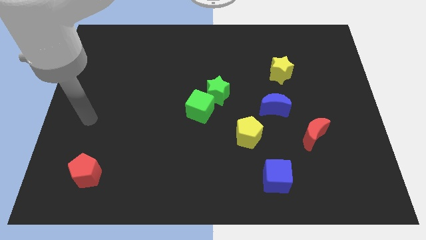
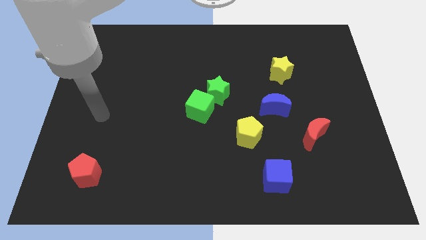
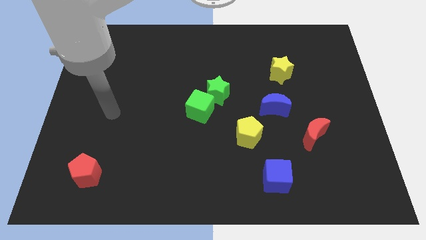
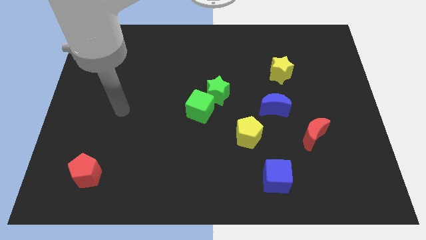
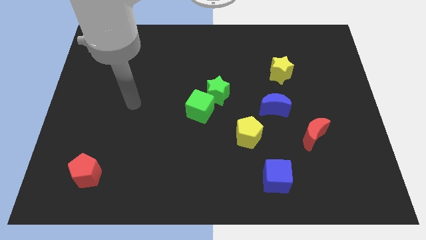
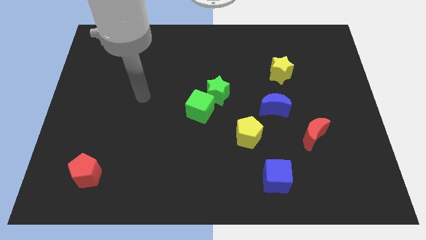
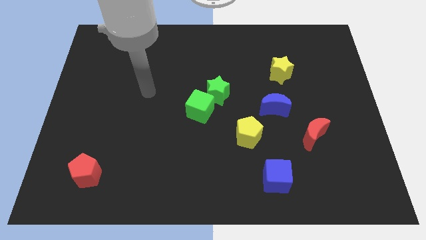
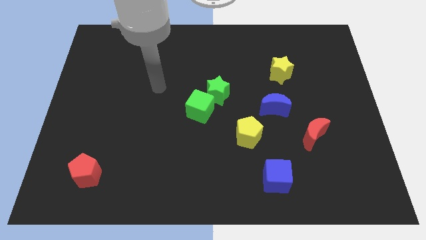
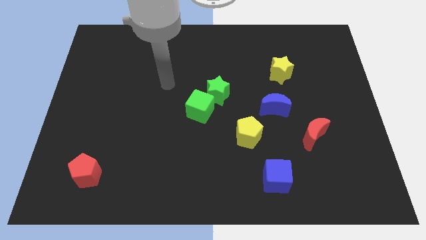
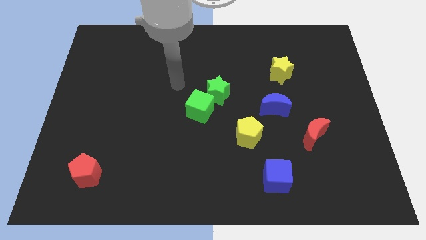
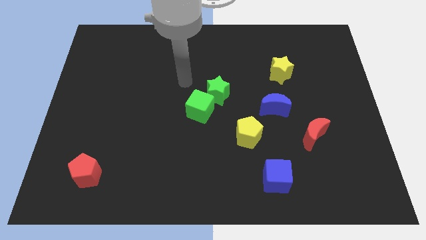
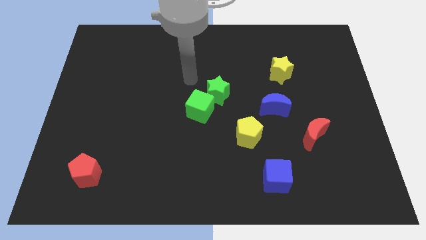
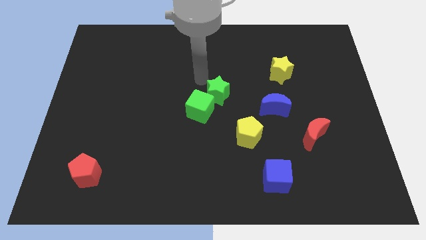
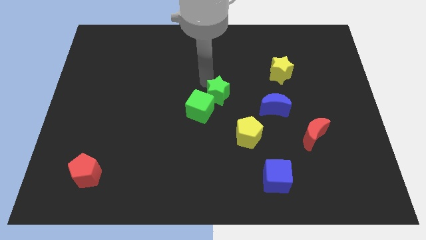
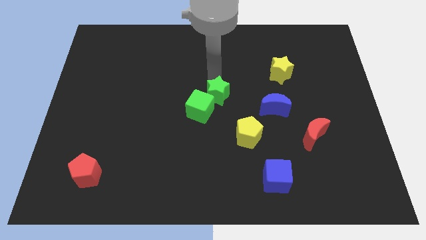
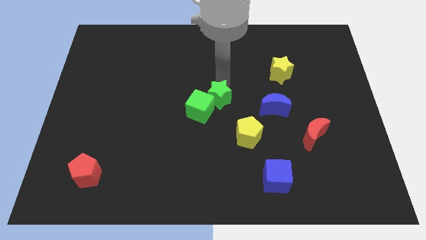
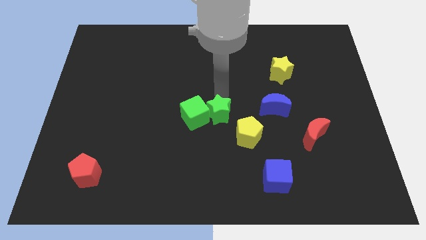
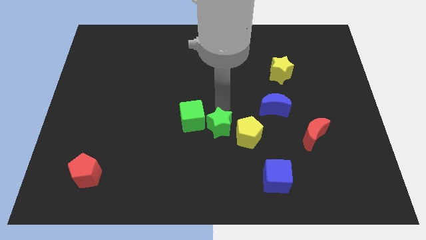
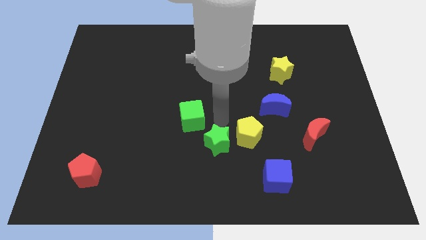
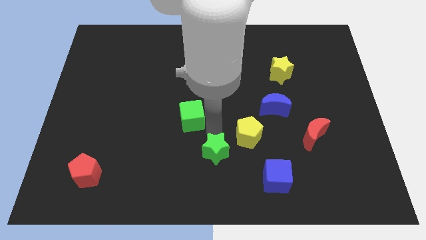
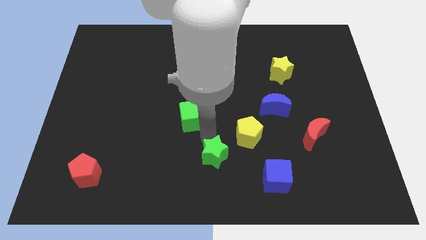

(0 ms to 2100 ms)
pull the green cube apart from the green star

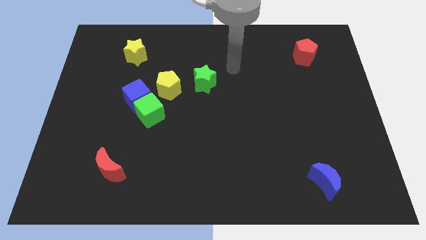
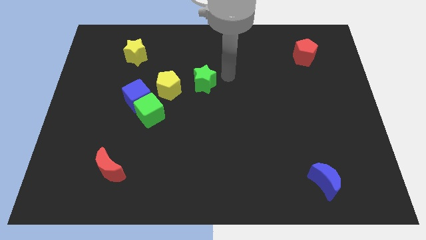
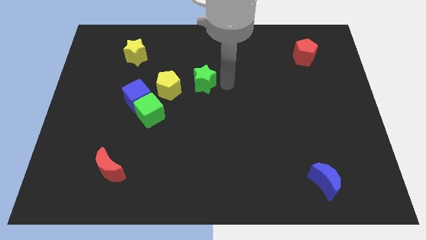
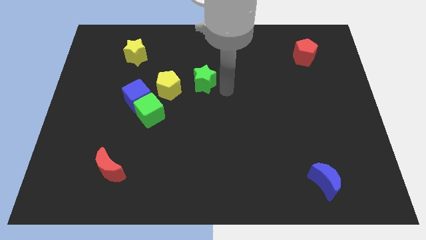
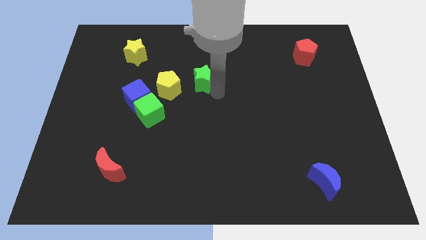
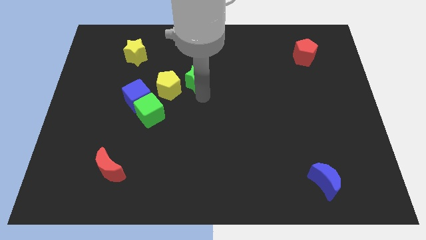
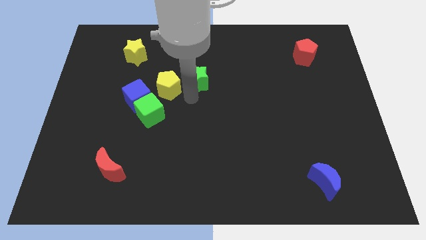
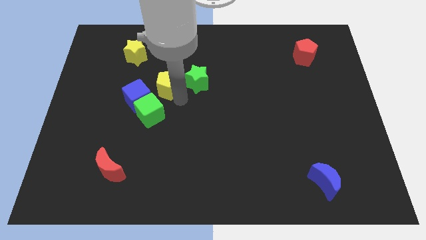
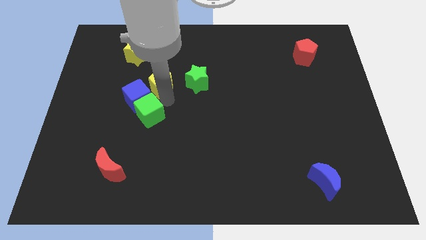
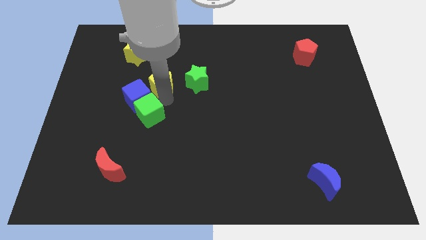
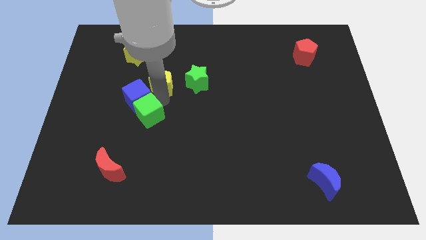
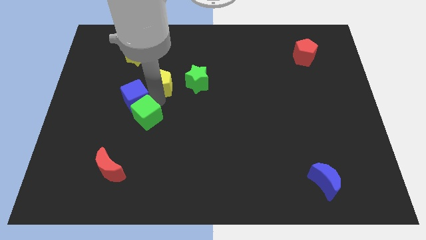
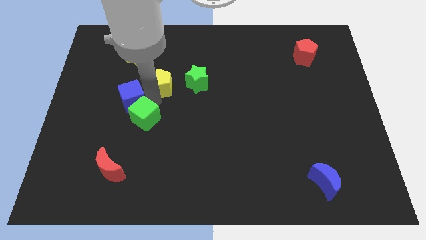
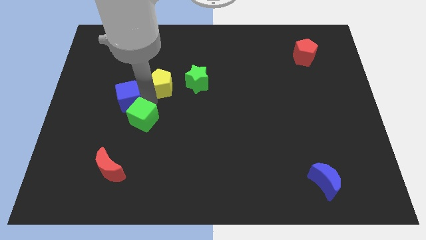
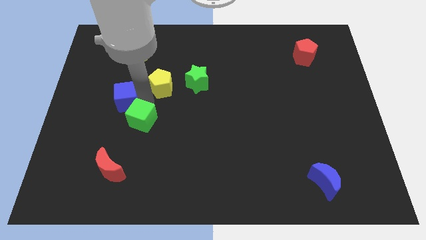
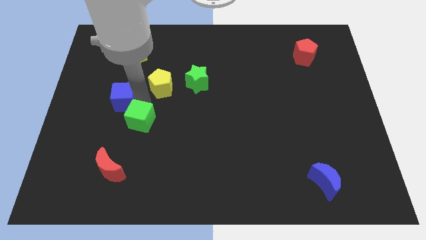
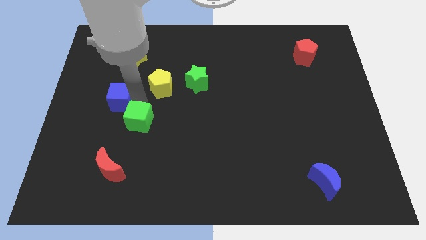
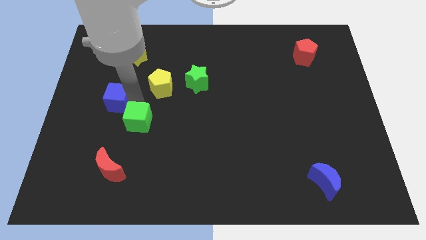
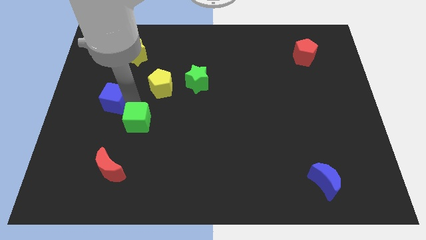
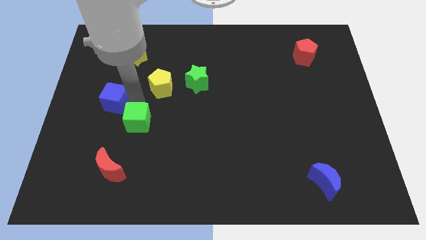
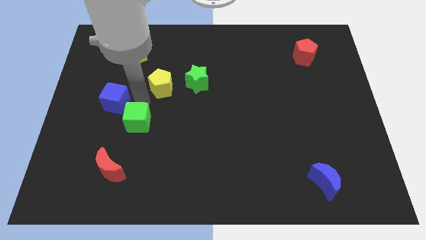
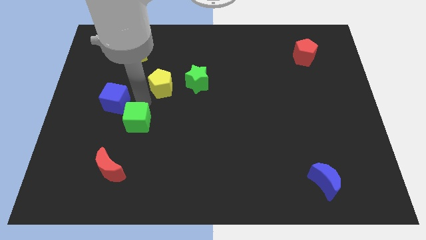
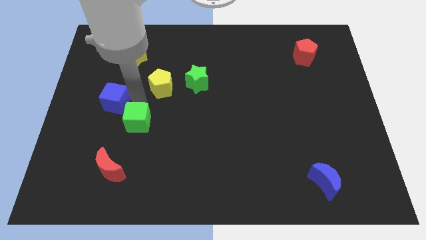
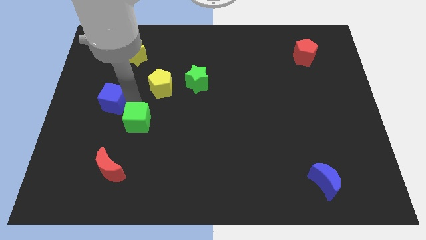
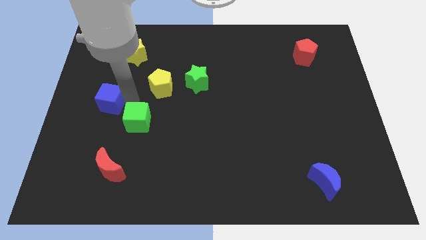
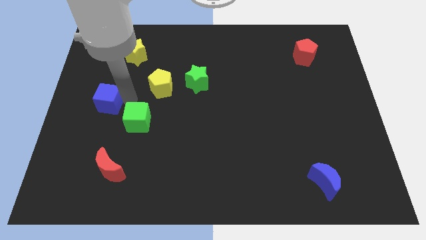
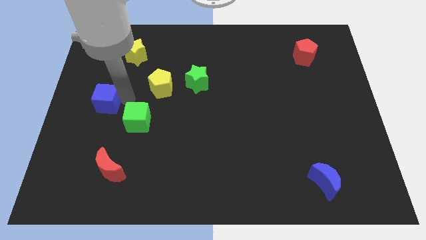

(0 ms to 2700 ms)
move the blue cube away from the green cube and yellow pentagon

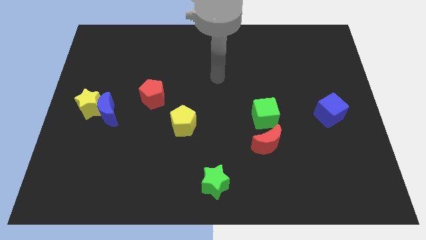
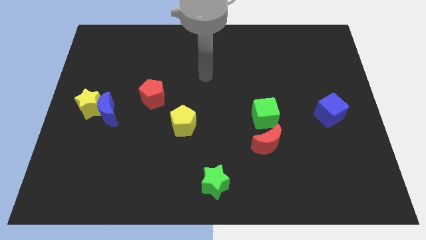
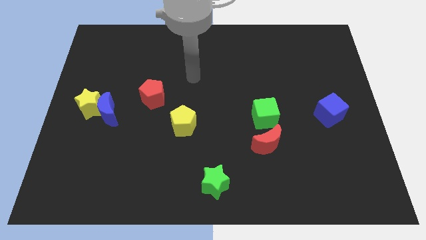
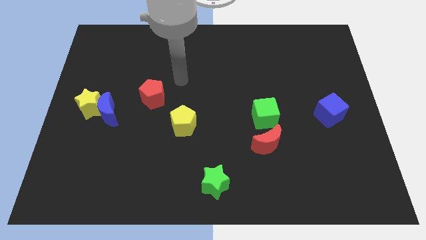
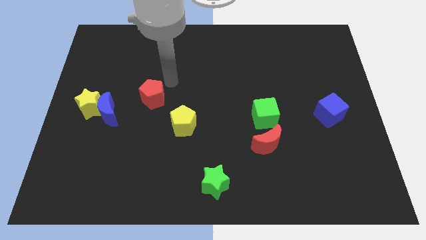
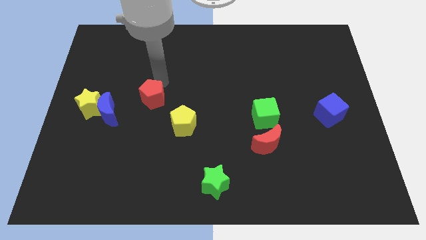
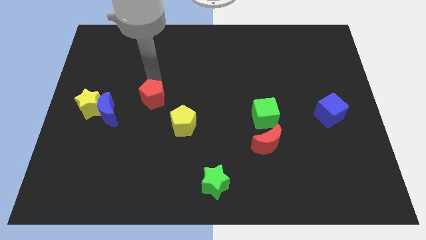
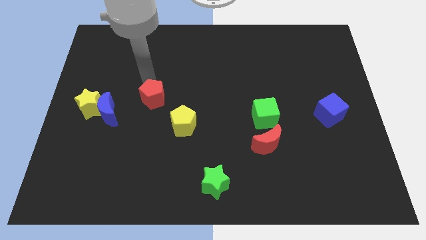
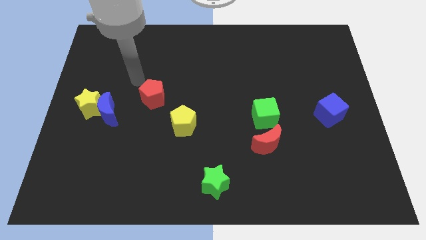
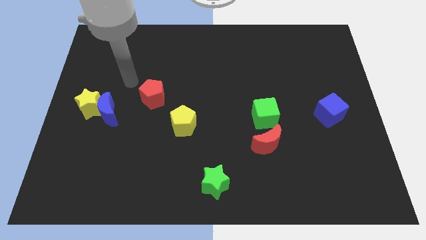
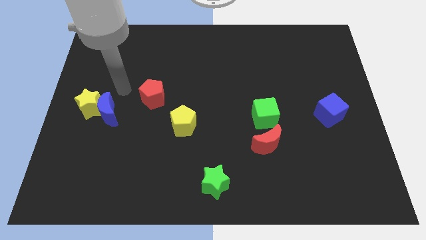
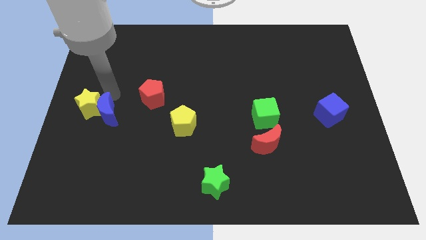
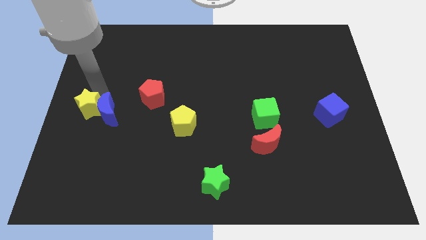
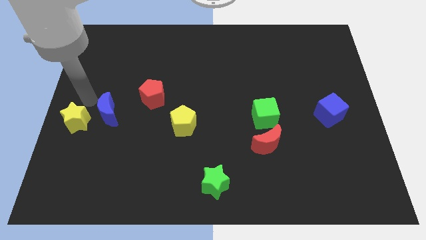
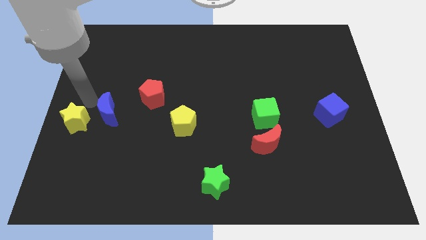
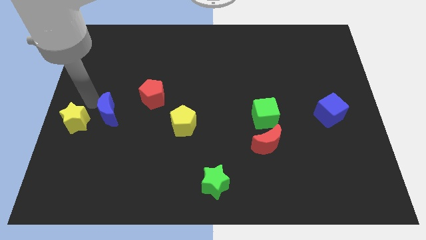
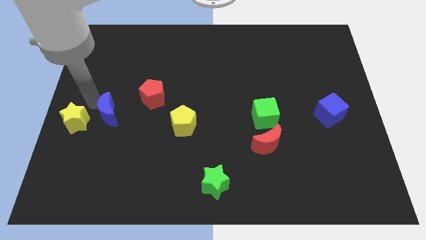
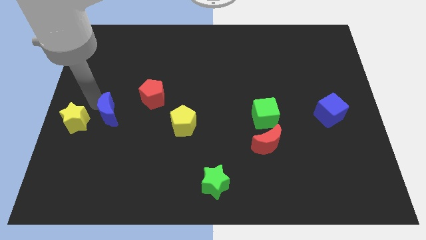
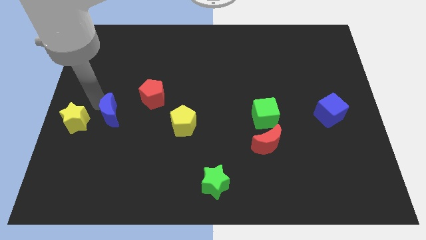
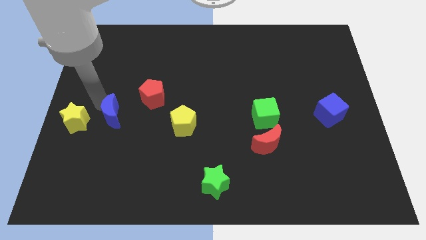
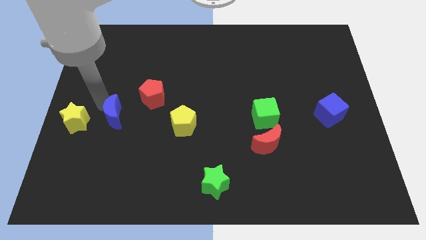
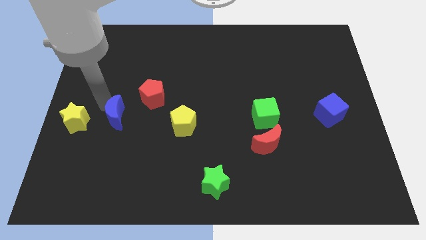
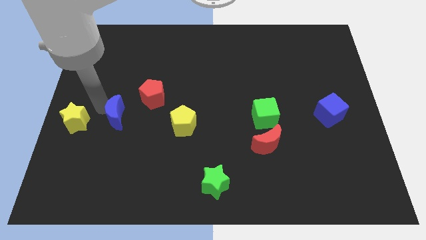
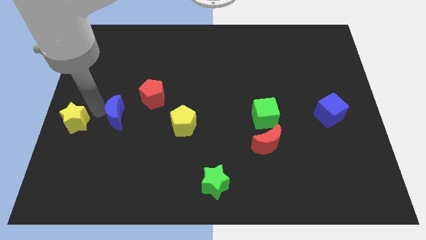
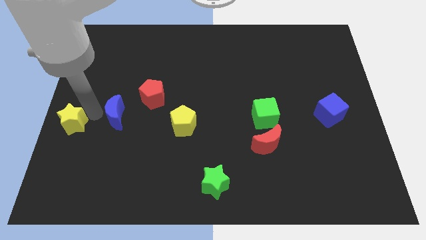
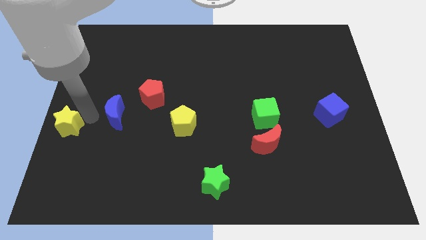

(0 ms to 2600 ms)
move the blue moon away from the yellow star

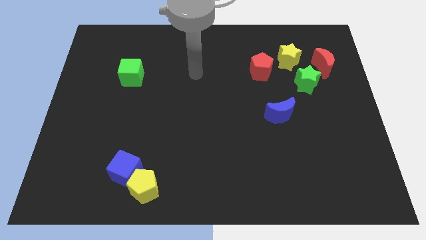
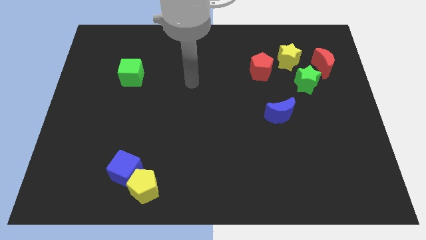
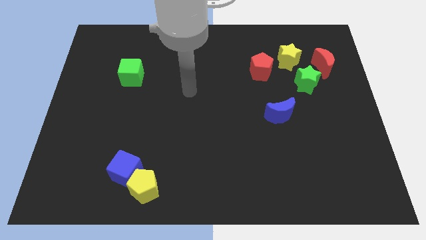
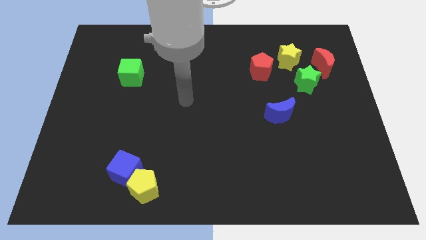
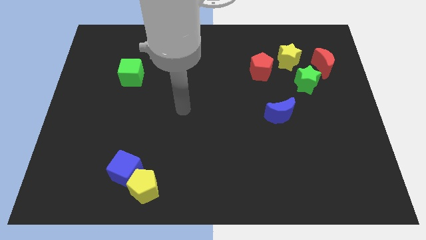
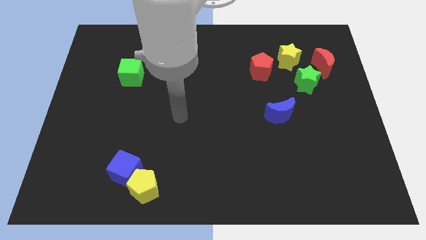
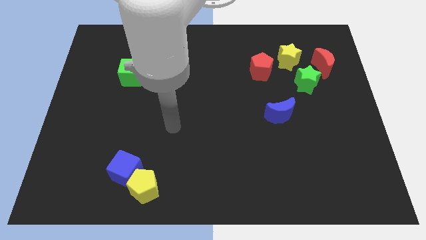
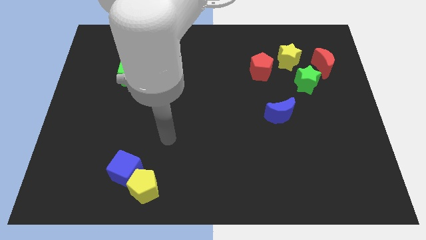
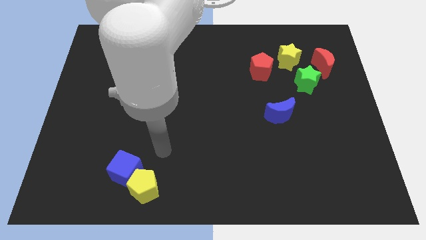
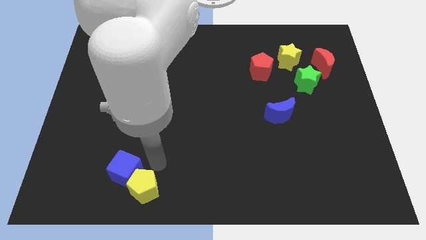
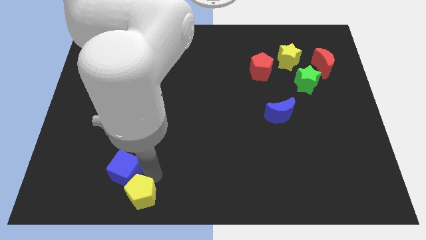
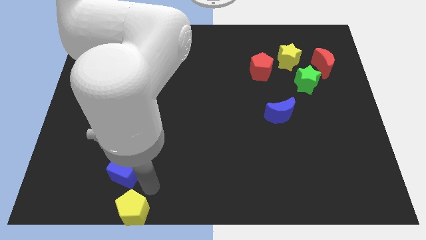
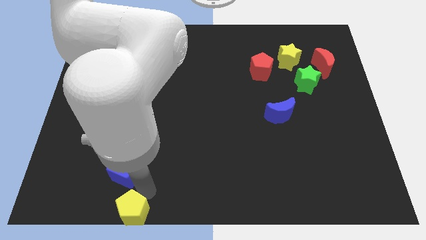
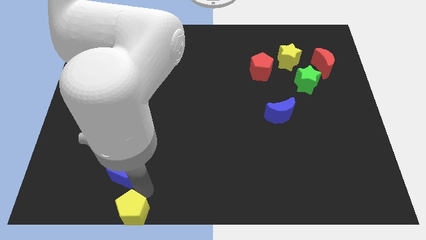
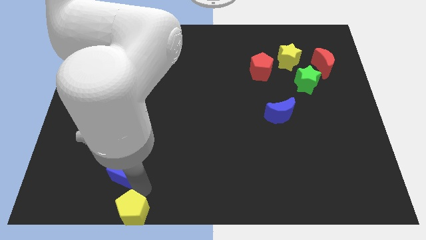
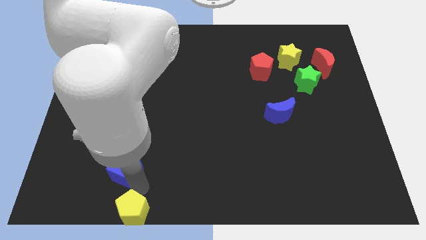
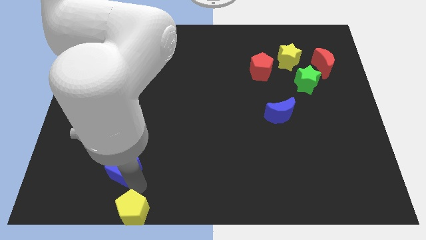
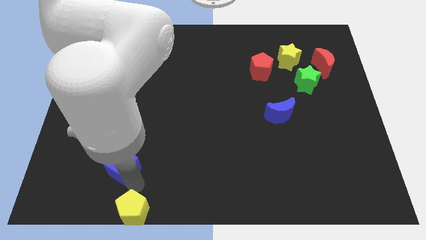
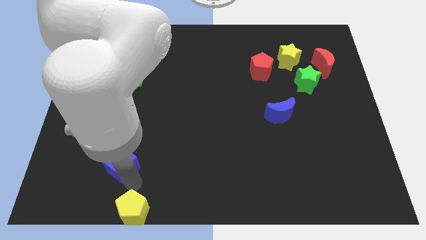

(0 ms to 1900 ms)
pull the blue cube apart from the yellow pentagon
